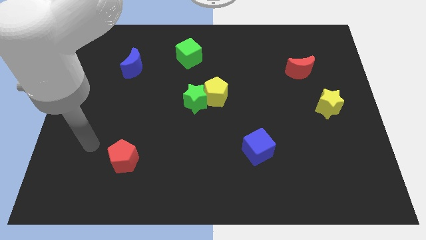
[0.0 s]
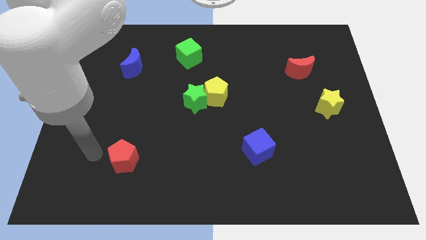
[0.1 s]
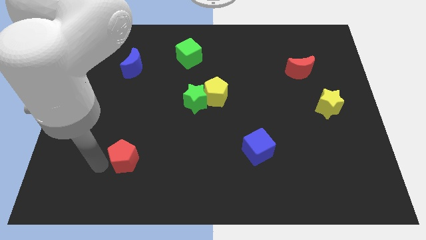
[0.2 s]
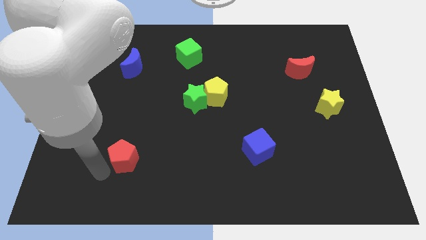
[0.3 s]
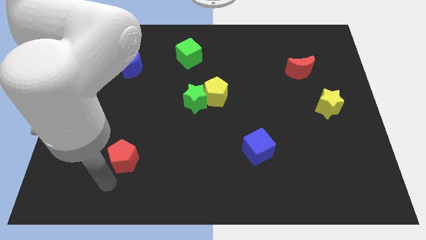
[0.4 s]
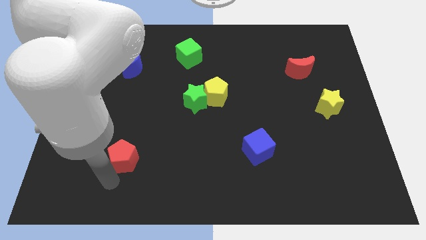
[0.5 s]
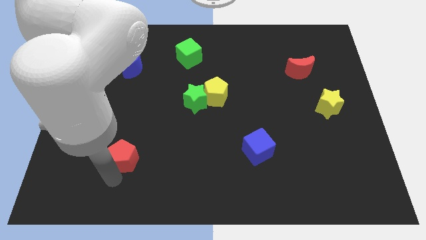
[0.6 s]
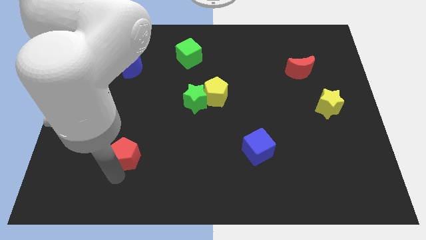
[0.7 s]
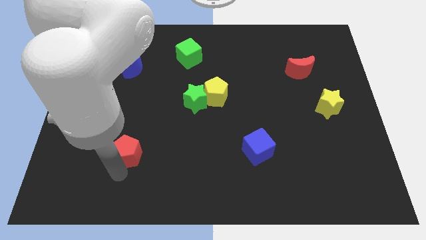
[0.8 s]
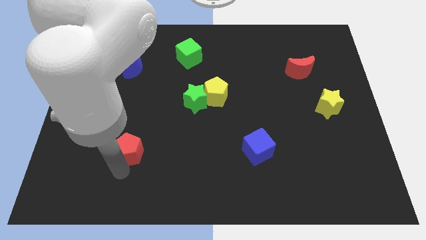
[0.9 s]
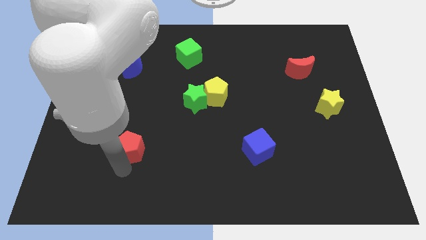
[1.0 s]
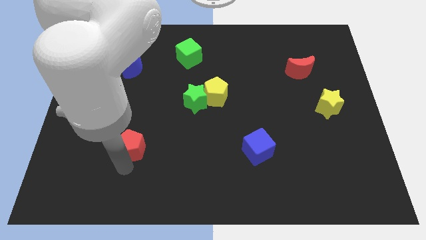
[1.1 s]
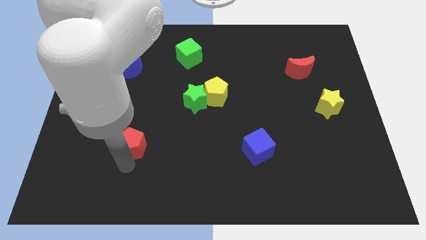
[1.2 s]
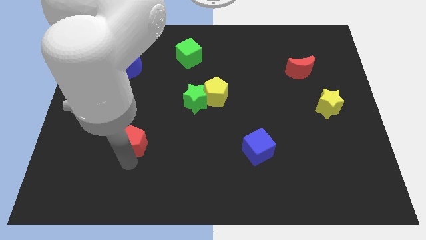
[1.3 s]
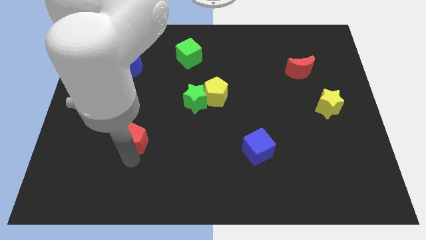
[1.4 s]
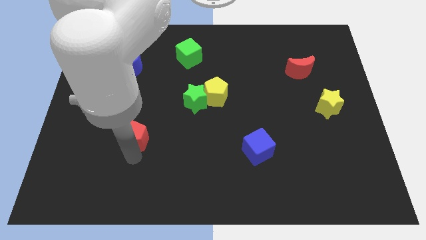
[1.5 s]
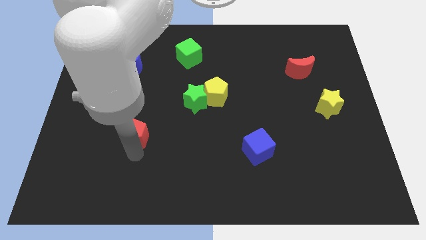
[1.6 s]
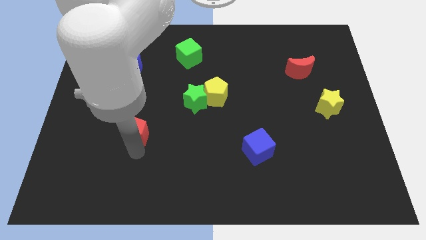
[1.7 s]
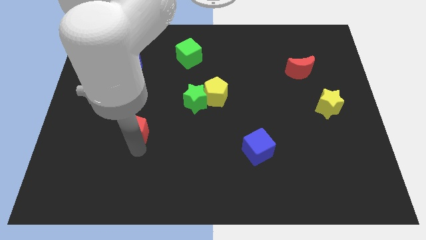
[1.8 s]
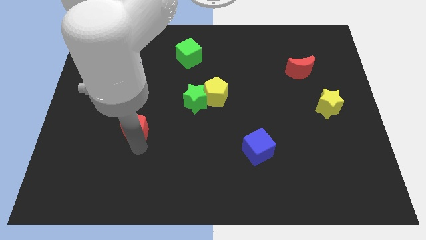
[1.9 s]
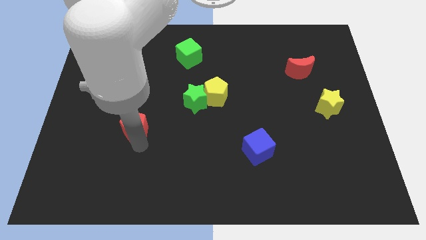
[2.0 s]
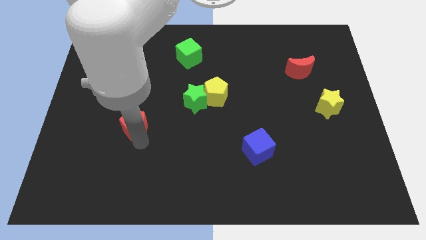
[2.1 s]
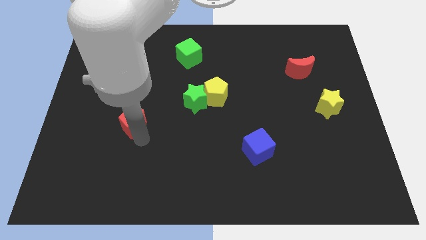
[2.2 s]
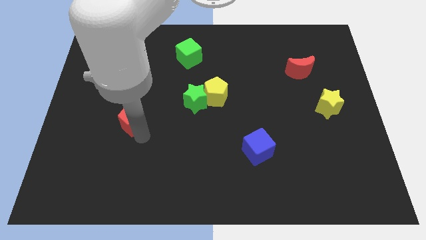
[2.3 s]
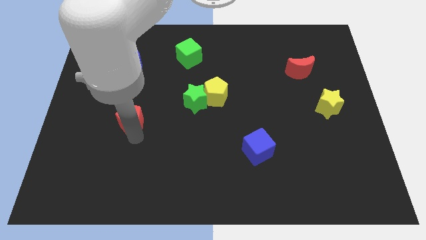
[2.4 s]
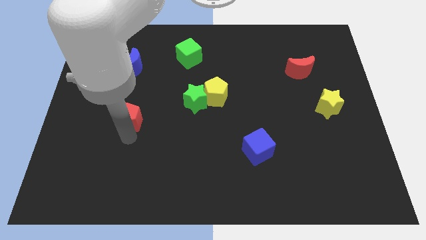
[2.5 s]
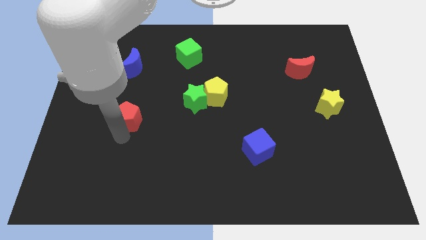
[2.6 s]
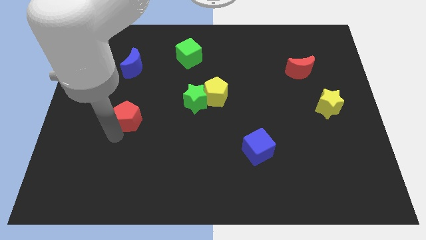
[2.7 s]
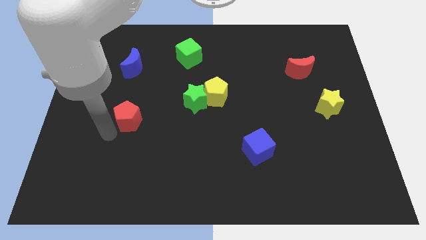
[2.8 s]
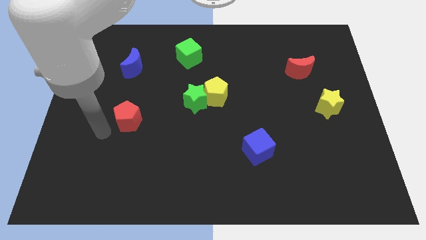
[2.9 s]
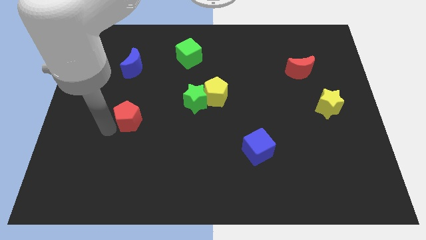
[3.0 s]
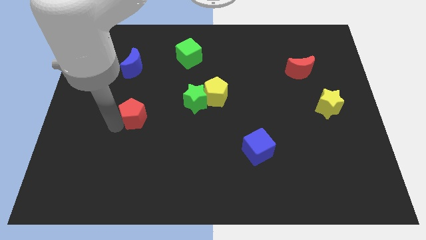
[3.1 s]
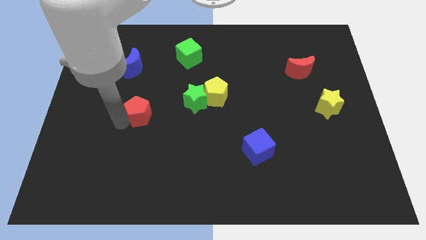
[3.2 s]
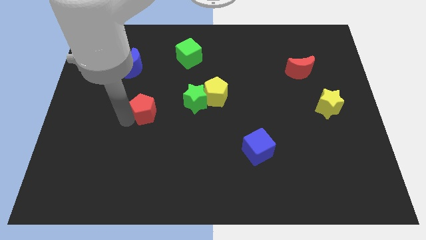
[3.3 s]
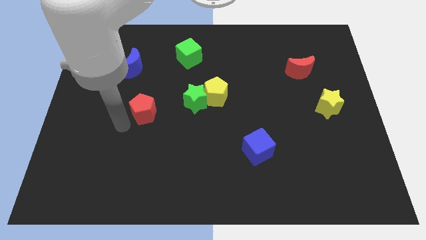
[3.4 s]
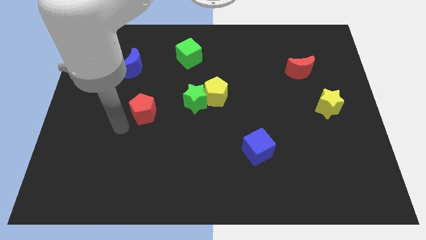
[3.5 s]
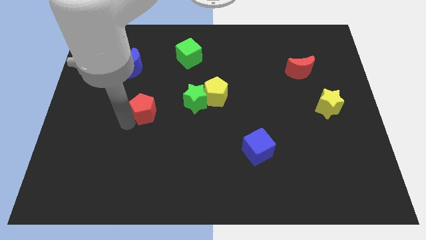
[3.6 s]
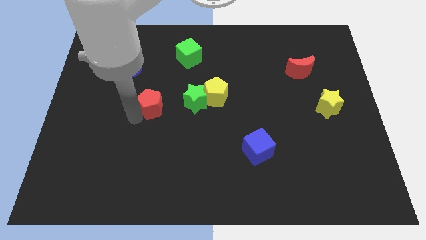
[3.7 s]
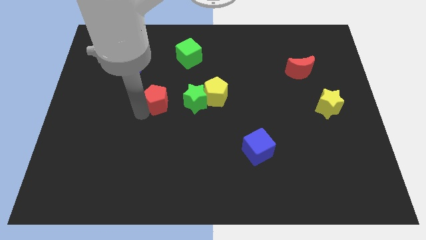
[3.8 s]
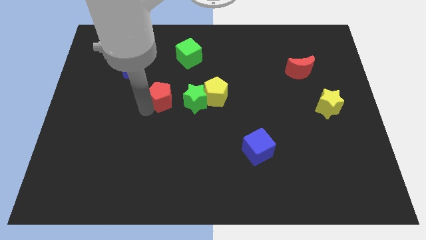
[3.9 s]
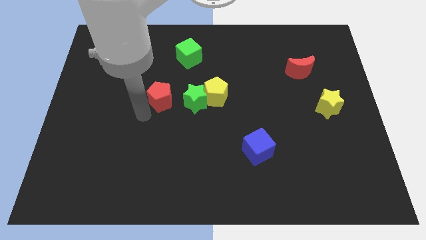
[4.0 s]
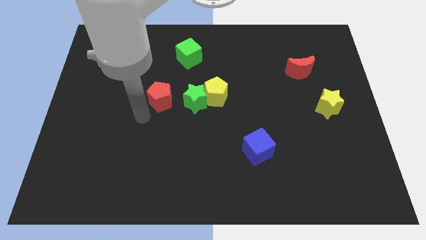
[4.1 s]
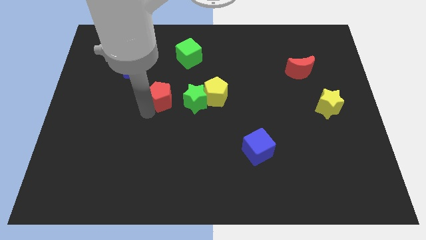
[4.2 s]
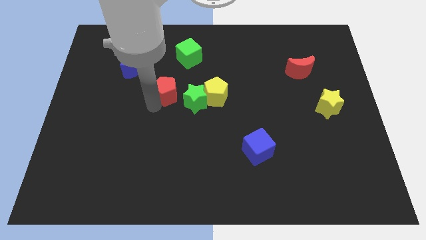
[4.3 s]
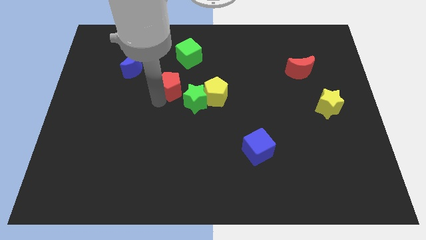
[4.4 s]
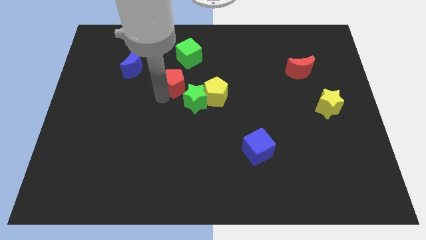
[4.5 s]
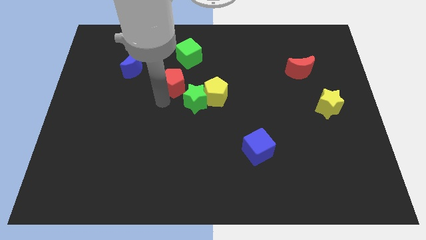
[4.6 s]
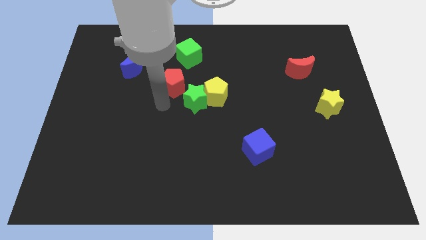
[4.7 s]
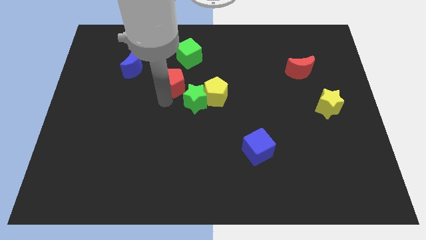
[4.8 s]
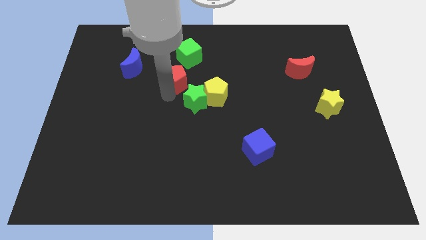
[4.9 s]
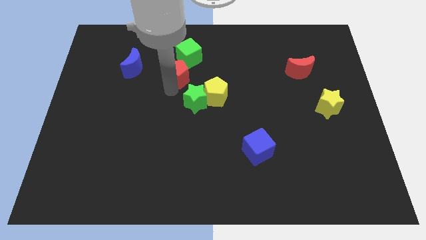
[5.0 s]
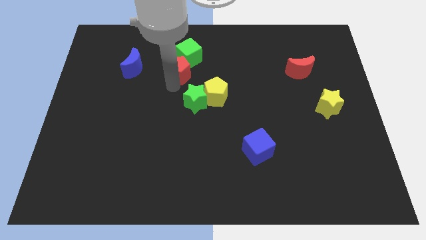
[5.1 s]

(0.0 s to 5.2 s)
push the red pentagon to the green cube

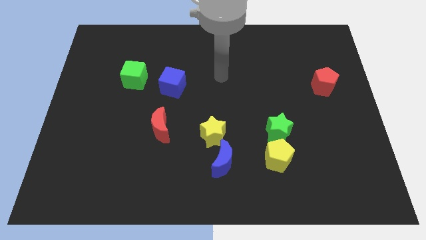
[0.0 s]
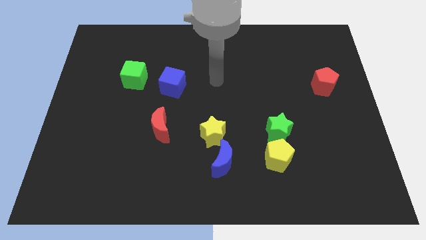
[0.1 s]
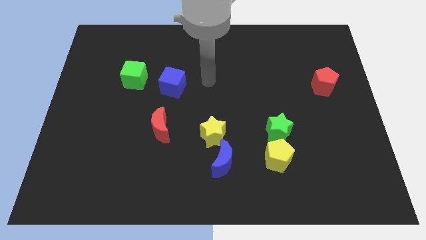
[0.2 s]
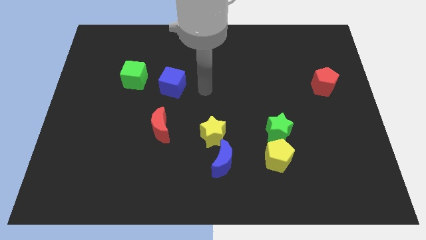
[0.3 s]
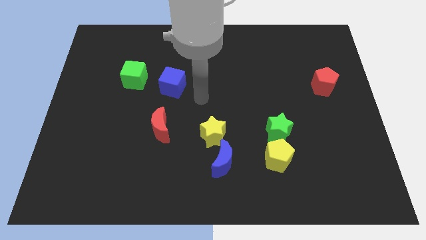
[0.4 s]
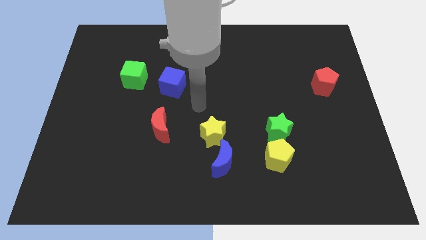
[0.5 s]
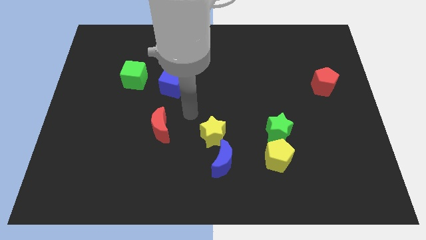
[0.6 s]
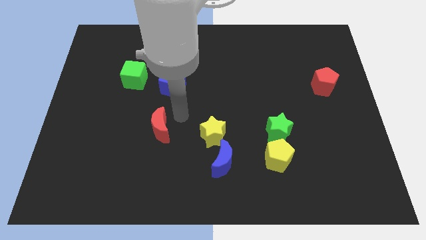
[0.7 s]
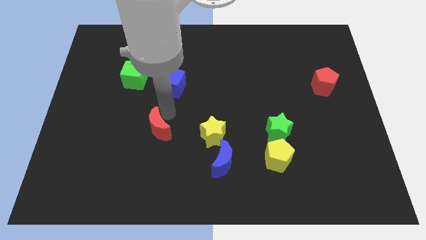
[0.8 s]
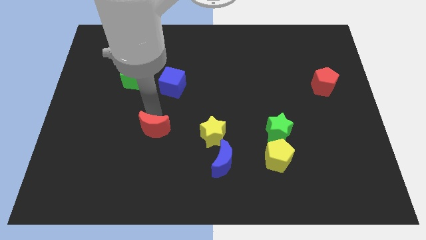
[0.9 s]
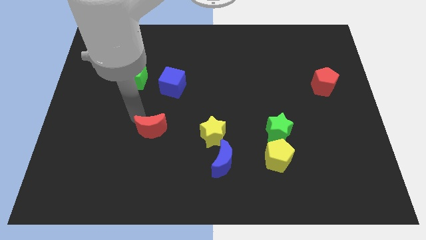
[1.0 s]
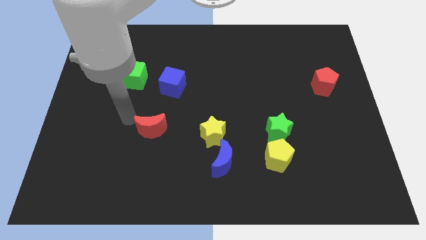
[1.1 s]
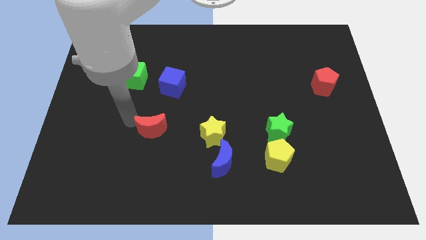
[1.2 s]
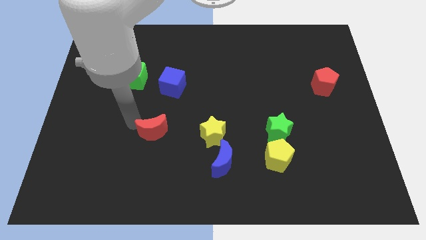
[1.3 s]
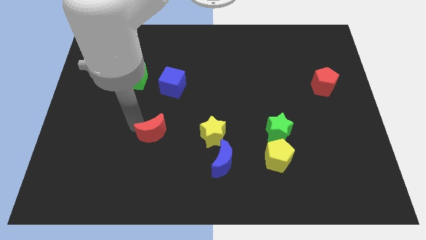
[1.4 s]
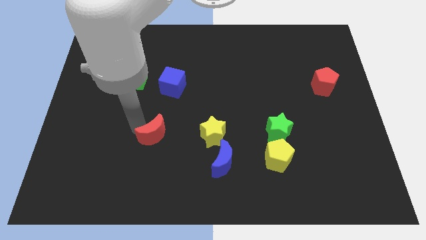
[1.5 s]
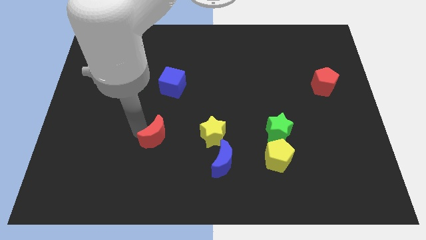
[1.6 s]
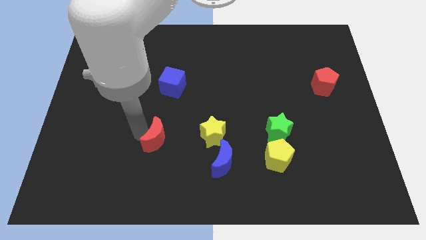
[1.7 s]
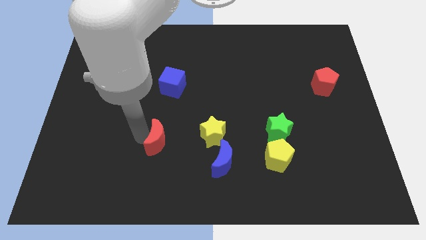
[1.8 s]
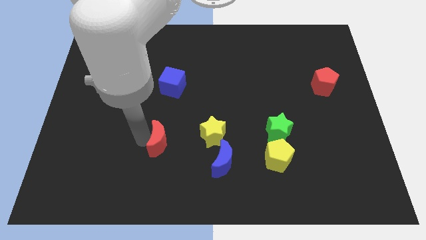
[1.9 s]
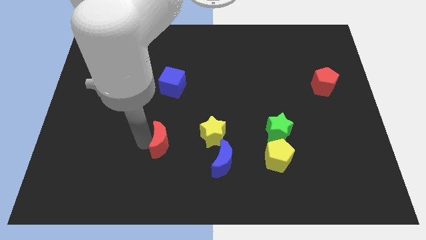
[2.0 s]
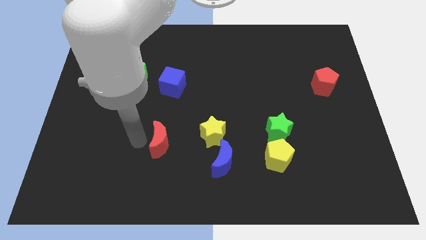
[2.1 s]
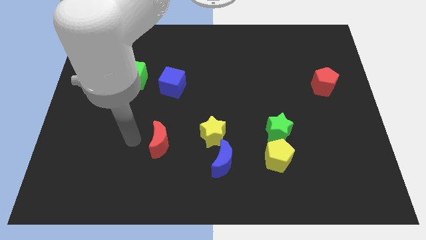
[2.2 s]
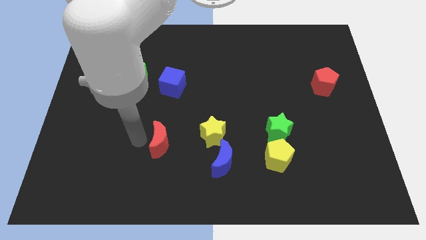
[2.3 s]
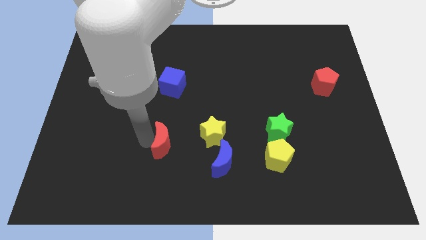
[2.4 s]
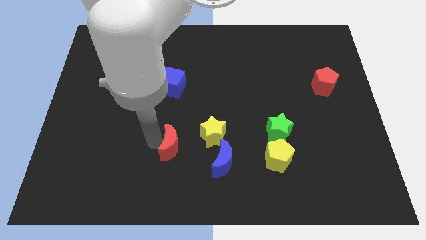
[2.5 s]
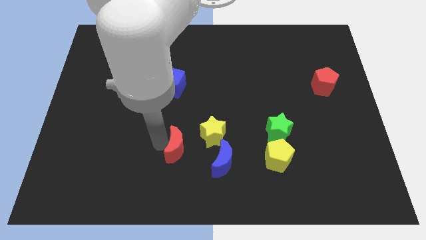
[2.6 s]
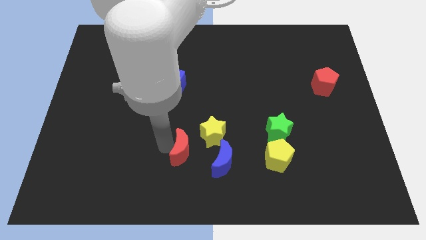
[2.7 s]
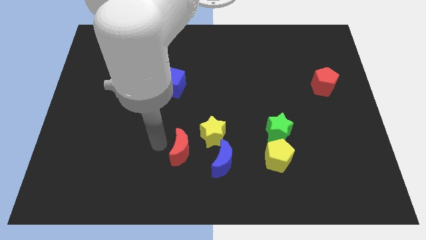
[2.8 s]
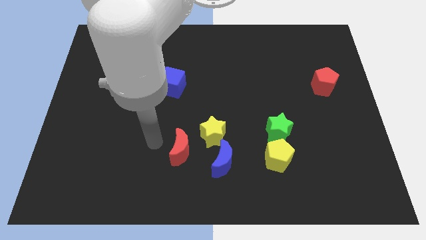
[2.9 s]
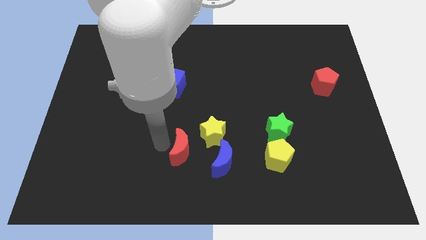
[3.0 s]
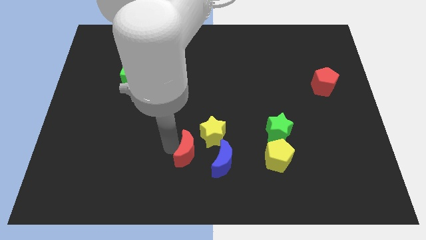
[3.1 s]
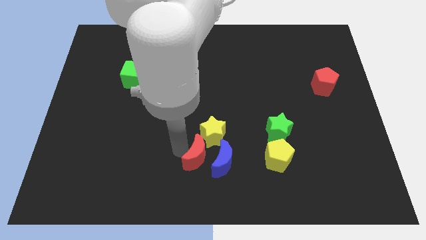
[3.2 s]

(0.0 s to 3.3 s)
slide the red moon towards the blue moon
